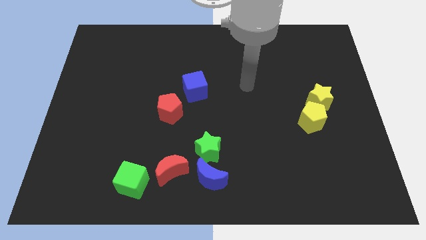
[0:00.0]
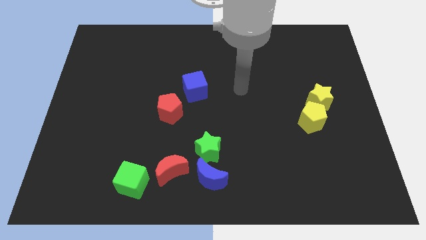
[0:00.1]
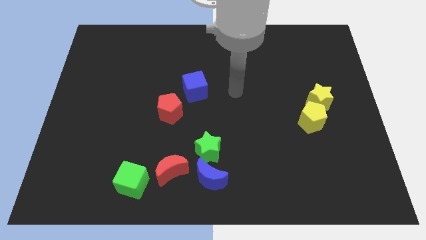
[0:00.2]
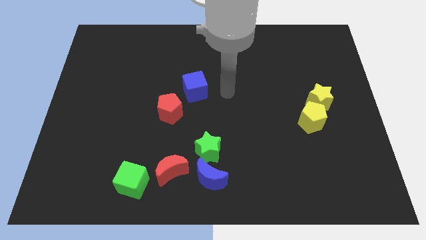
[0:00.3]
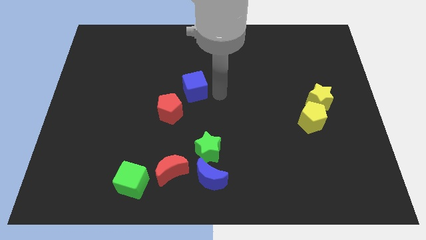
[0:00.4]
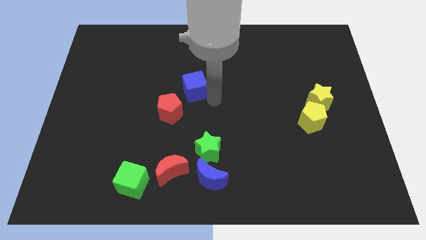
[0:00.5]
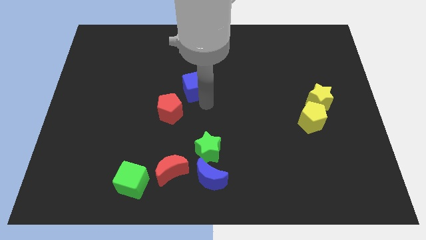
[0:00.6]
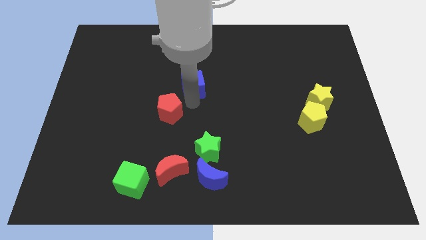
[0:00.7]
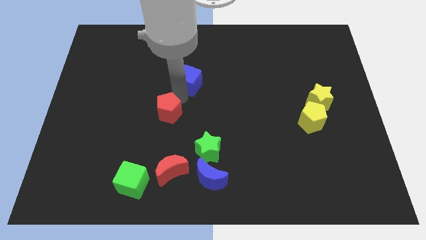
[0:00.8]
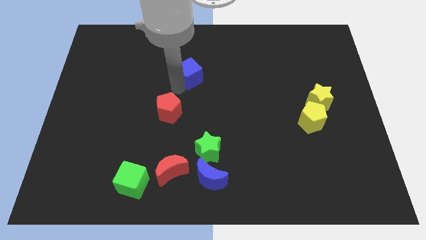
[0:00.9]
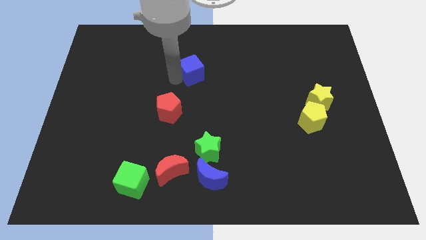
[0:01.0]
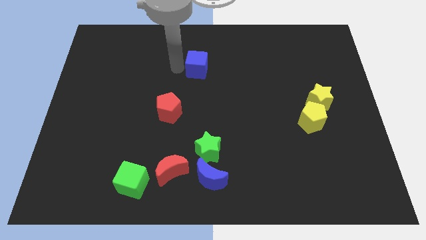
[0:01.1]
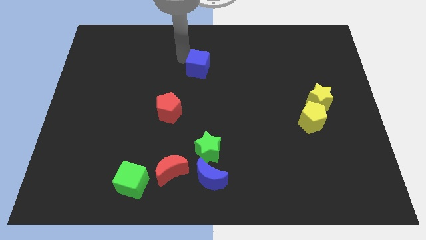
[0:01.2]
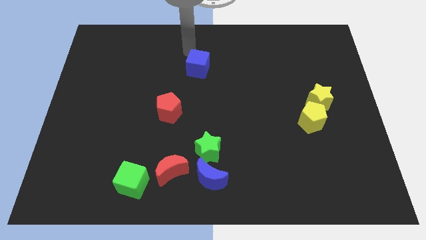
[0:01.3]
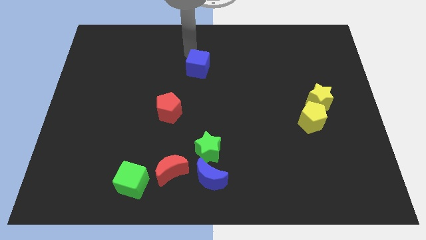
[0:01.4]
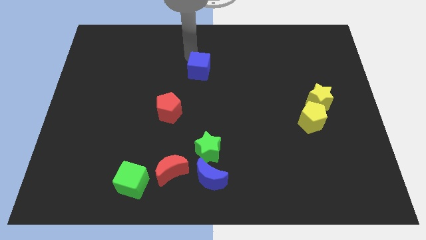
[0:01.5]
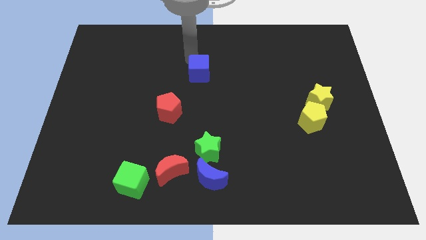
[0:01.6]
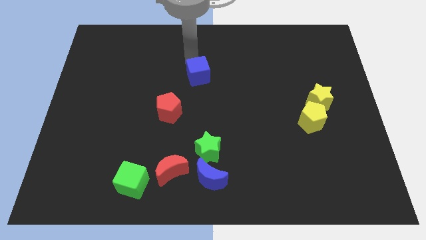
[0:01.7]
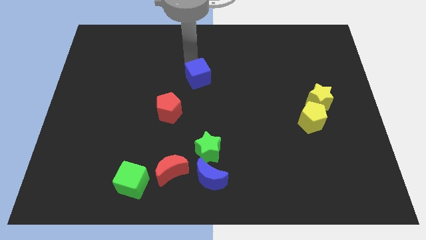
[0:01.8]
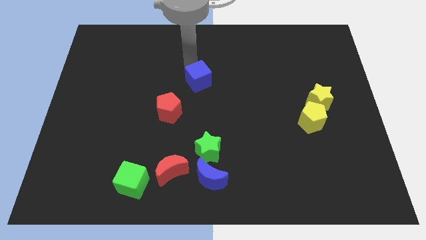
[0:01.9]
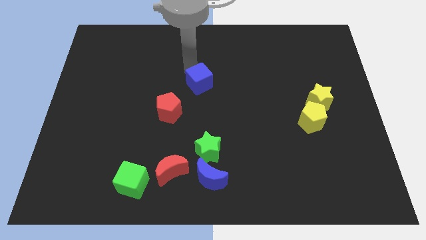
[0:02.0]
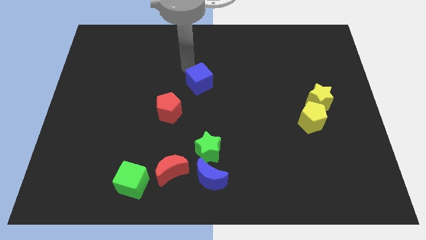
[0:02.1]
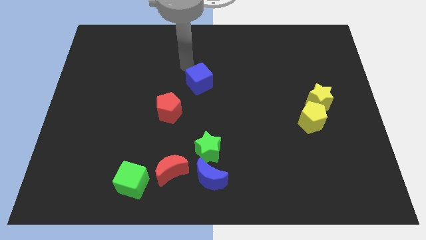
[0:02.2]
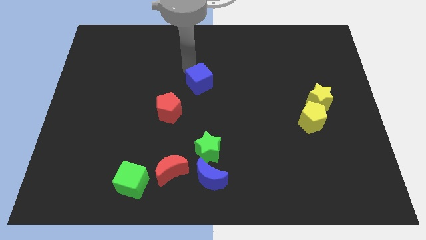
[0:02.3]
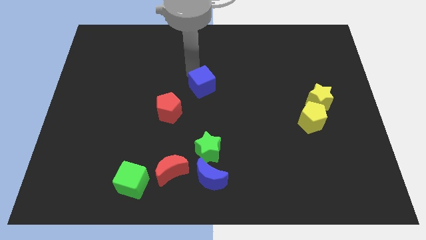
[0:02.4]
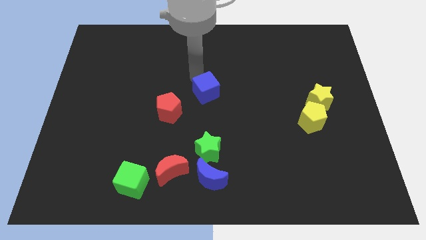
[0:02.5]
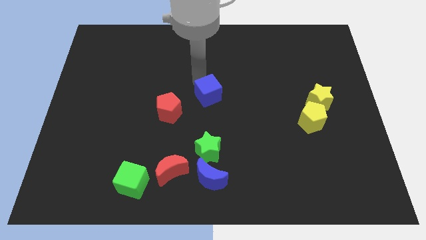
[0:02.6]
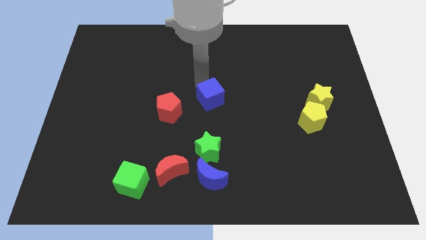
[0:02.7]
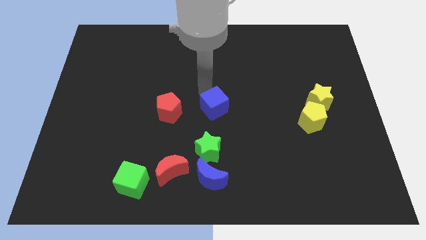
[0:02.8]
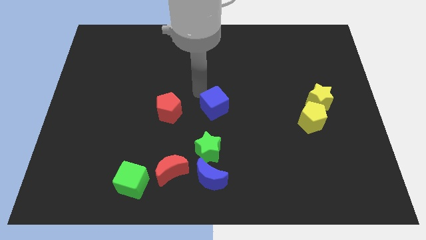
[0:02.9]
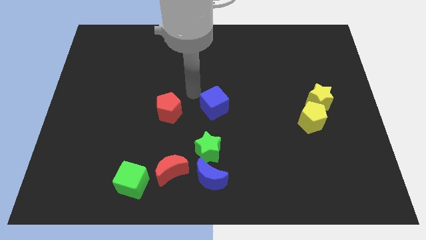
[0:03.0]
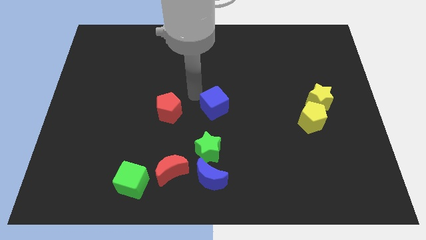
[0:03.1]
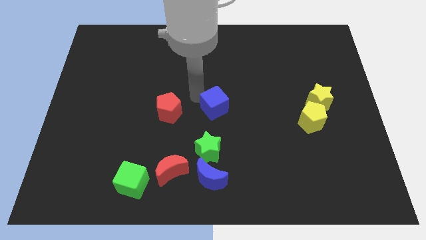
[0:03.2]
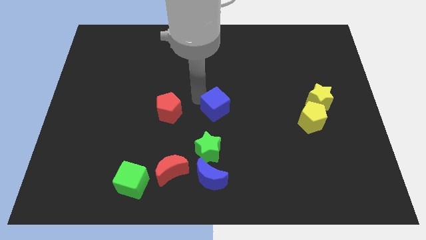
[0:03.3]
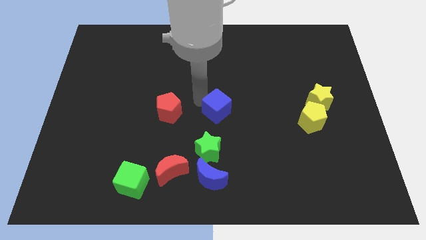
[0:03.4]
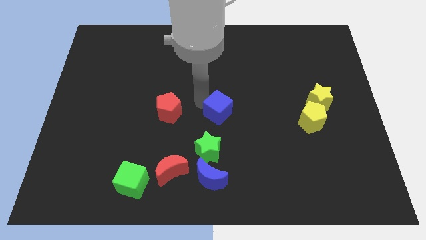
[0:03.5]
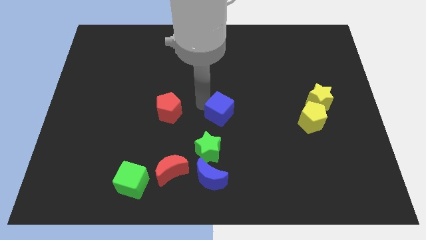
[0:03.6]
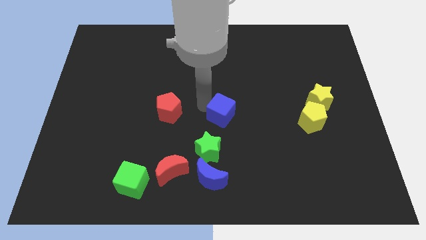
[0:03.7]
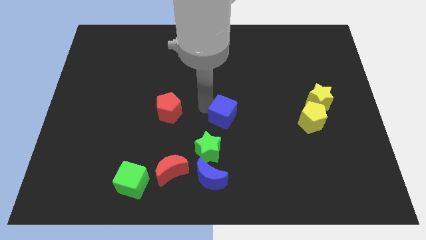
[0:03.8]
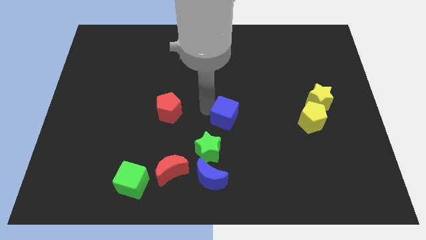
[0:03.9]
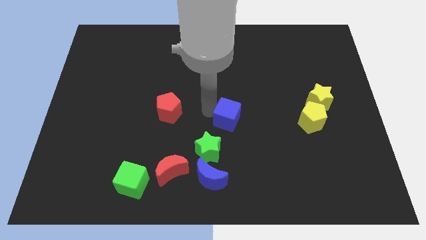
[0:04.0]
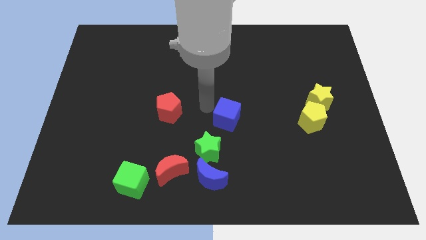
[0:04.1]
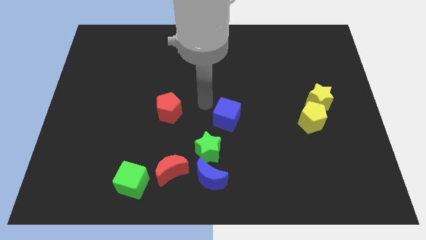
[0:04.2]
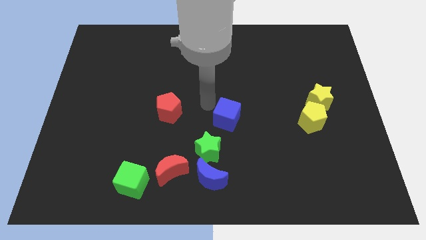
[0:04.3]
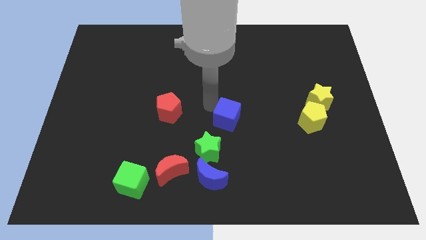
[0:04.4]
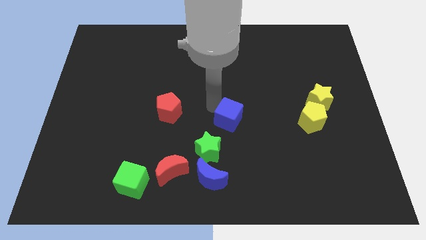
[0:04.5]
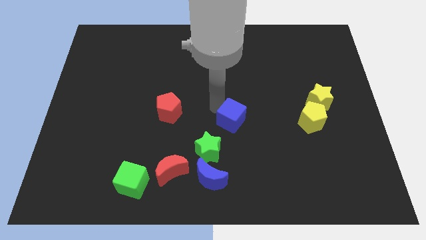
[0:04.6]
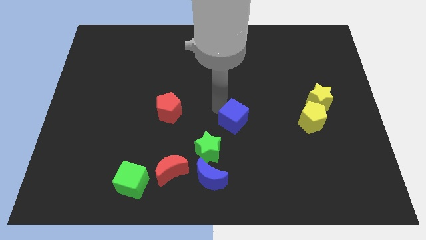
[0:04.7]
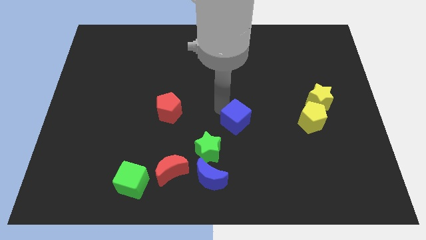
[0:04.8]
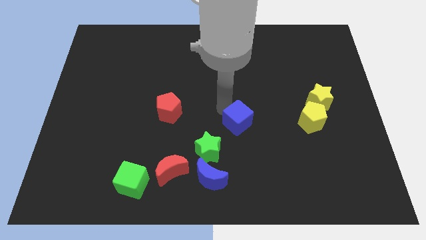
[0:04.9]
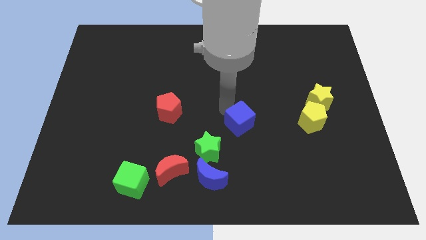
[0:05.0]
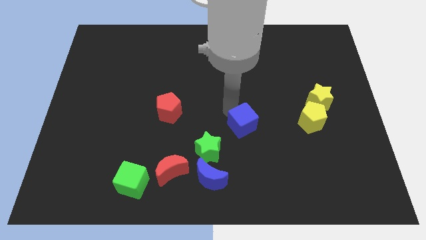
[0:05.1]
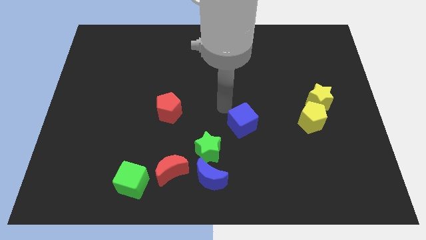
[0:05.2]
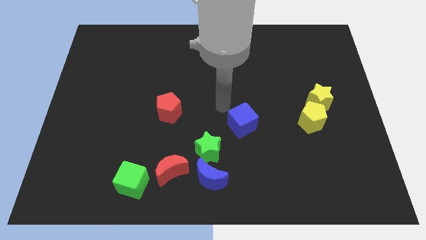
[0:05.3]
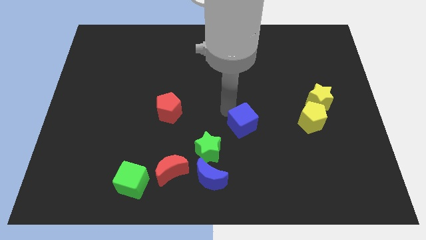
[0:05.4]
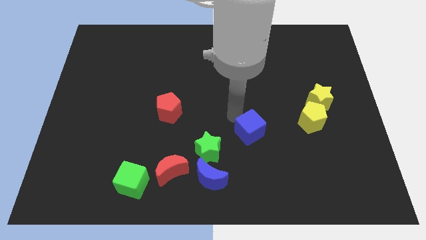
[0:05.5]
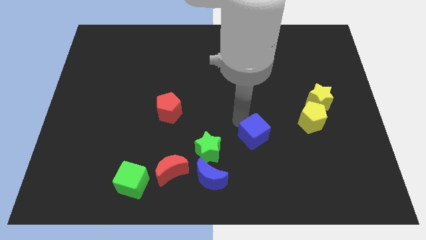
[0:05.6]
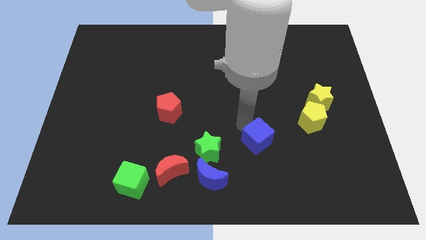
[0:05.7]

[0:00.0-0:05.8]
move the blue cube downwards and to the right

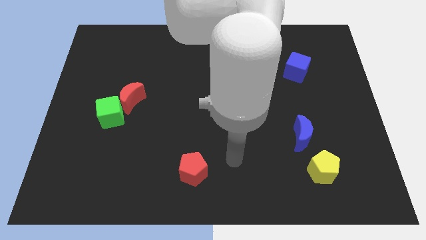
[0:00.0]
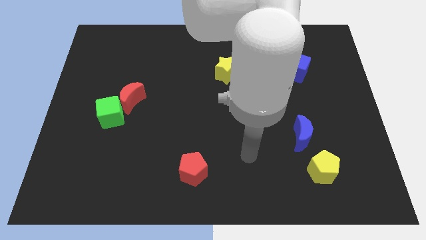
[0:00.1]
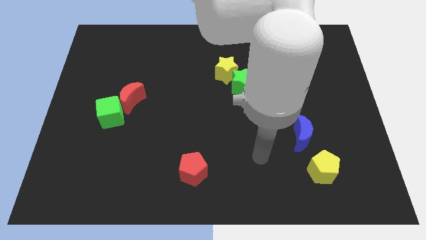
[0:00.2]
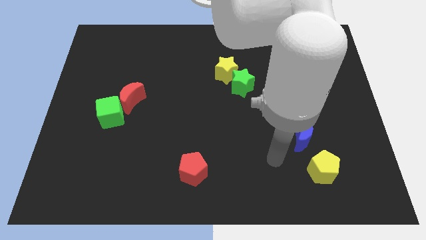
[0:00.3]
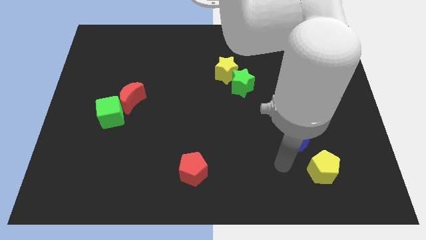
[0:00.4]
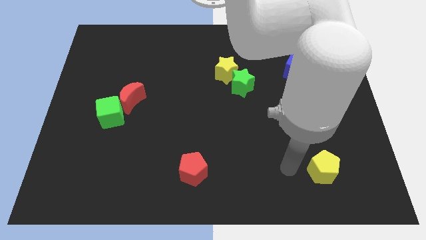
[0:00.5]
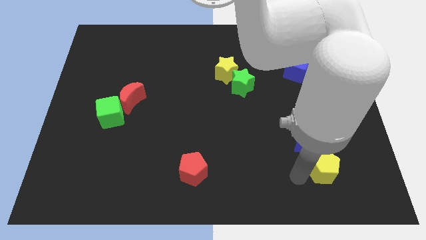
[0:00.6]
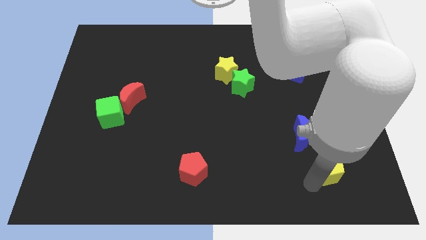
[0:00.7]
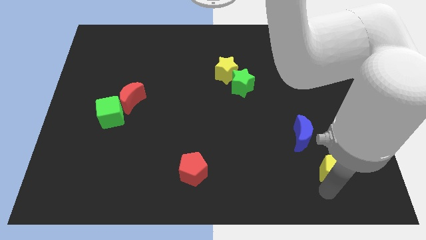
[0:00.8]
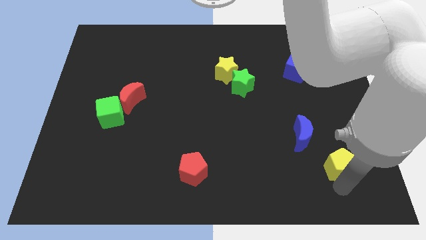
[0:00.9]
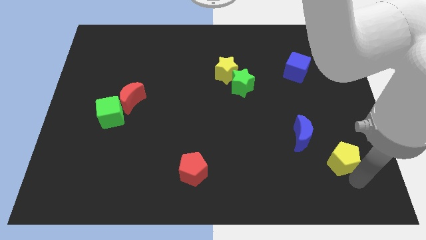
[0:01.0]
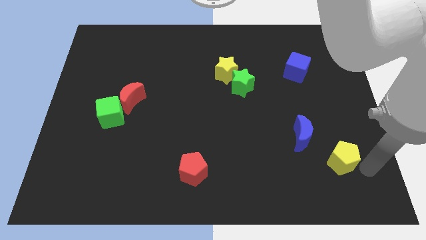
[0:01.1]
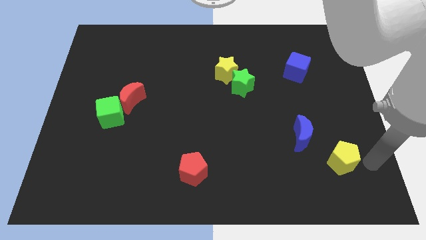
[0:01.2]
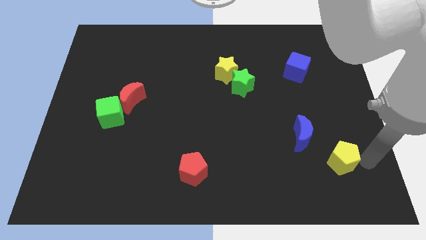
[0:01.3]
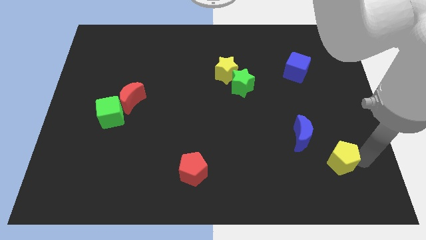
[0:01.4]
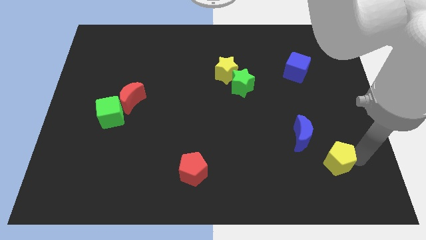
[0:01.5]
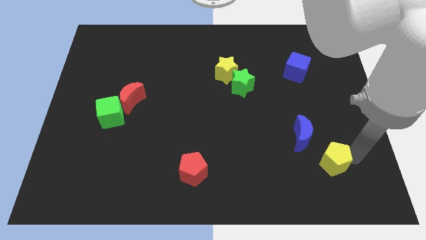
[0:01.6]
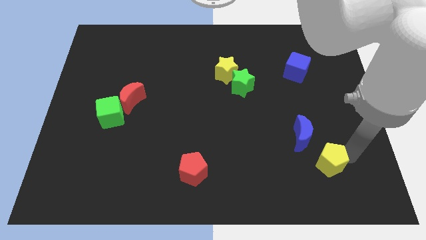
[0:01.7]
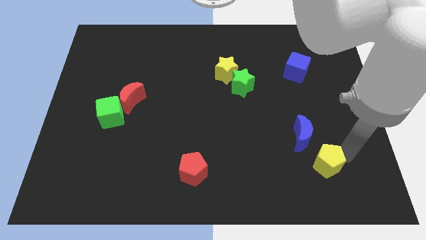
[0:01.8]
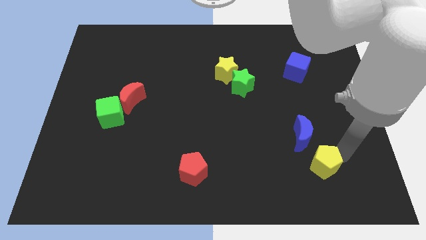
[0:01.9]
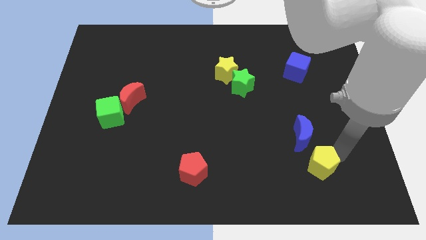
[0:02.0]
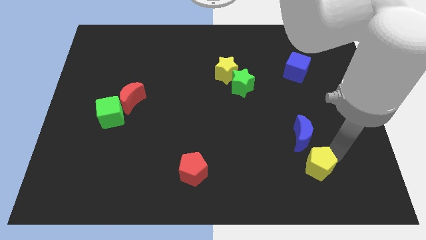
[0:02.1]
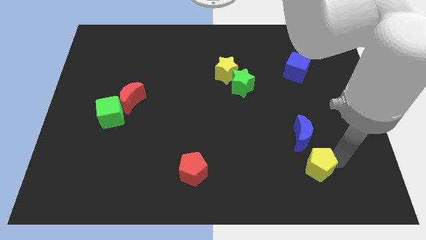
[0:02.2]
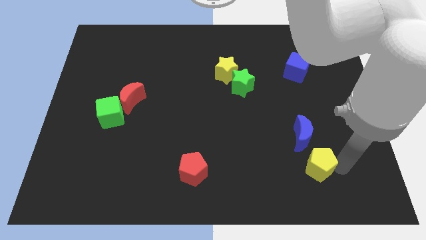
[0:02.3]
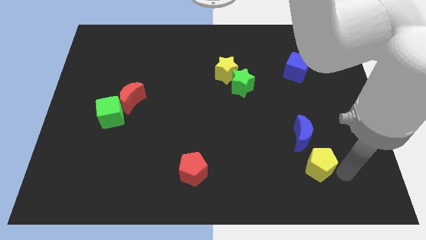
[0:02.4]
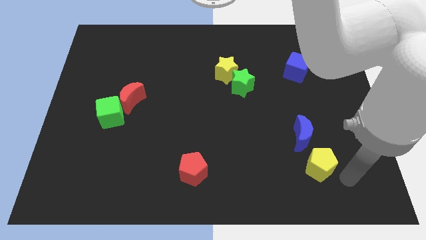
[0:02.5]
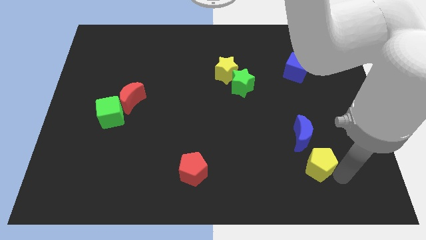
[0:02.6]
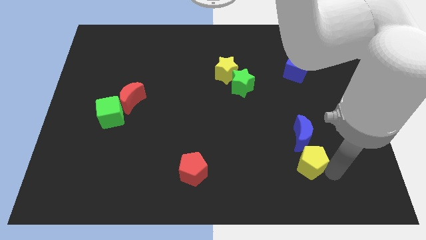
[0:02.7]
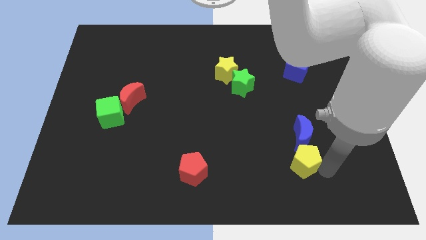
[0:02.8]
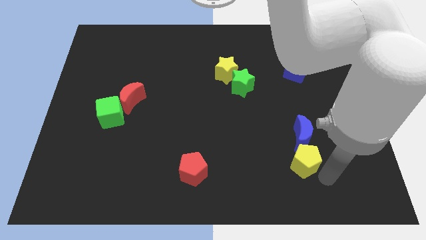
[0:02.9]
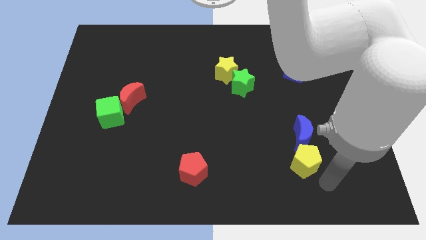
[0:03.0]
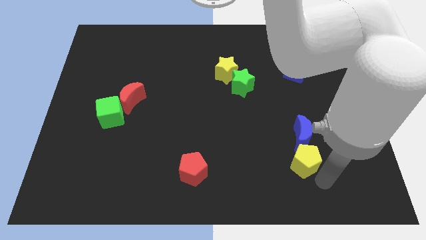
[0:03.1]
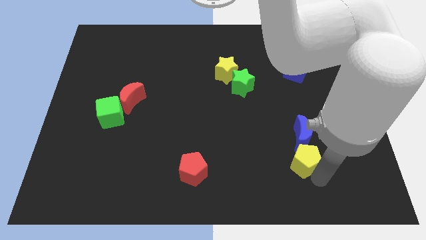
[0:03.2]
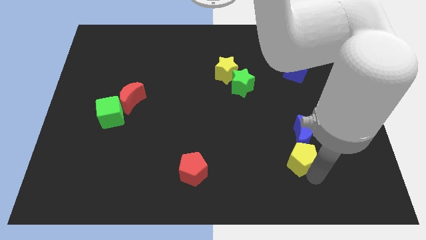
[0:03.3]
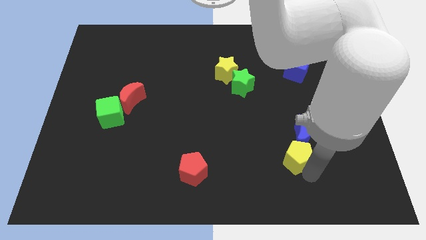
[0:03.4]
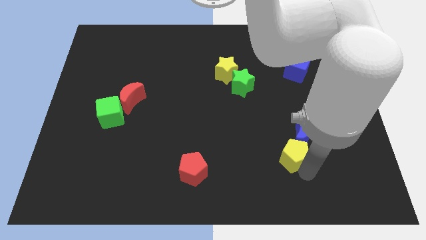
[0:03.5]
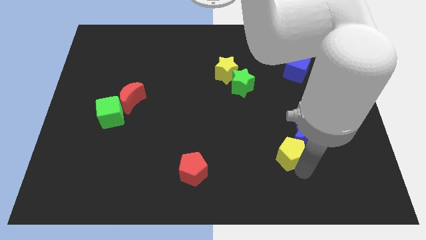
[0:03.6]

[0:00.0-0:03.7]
push the yellow pentagon up and to the left a little
